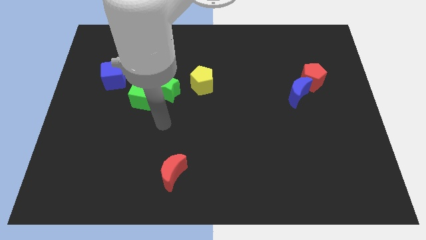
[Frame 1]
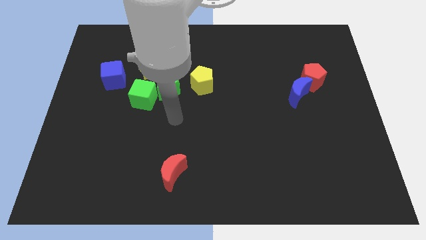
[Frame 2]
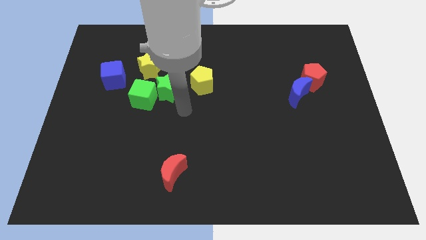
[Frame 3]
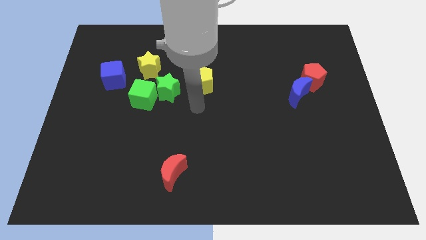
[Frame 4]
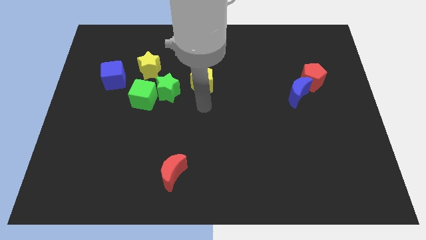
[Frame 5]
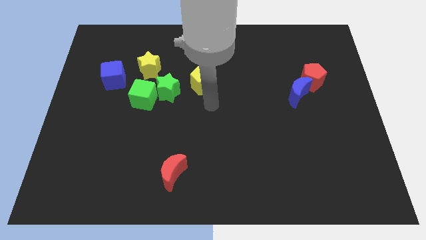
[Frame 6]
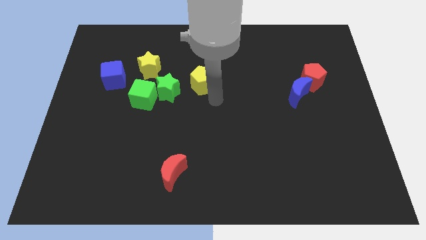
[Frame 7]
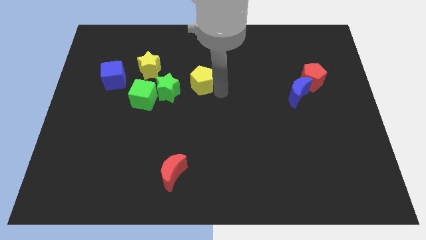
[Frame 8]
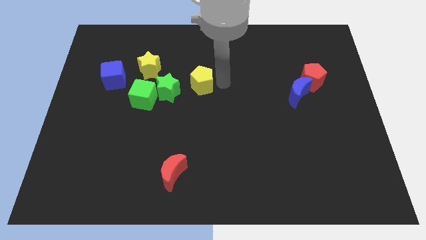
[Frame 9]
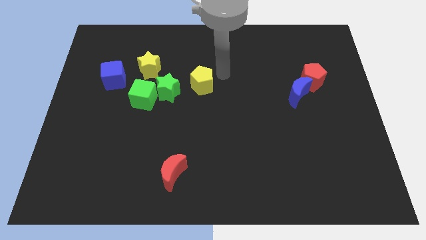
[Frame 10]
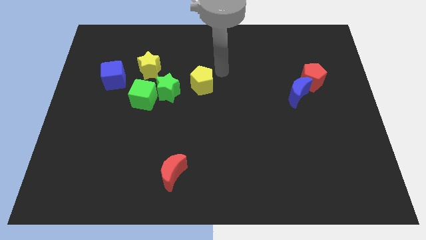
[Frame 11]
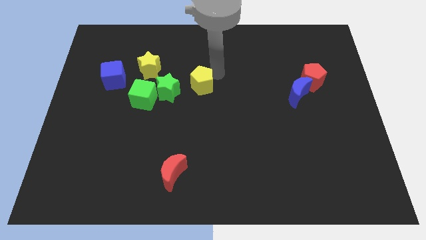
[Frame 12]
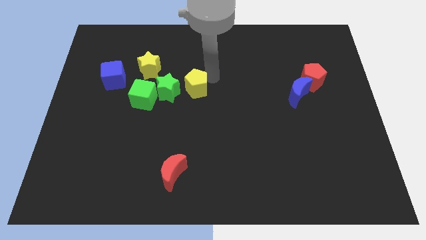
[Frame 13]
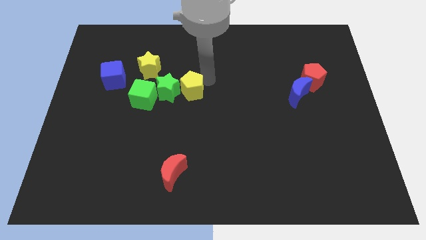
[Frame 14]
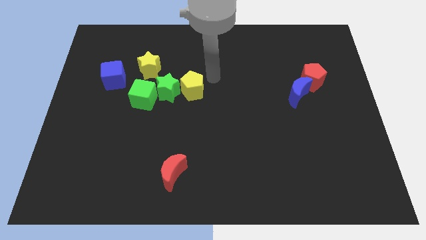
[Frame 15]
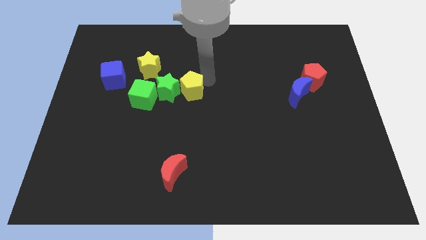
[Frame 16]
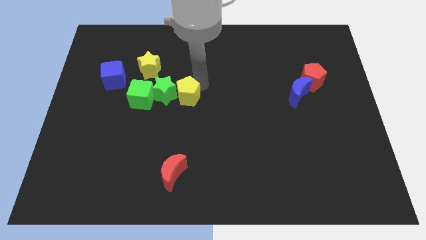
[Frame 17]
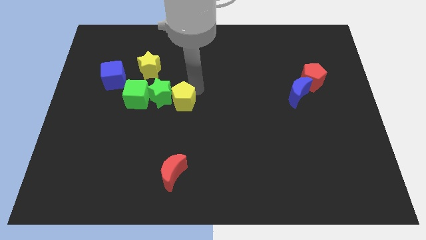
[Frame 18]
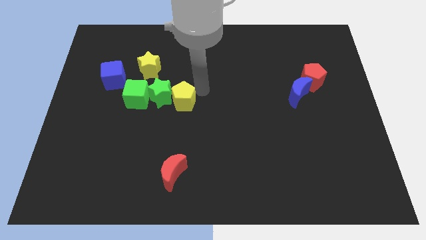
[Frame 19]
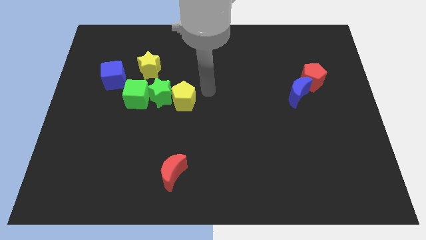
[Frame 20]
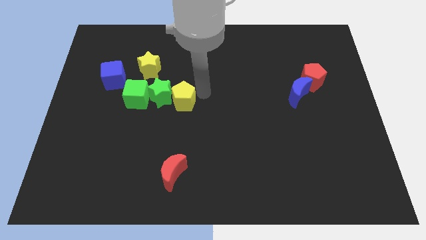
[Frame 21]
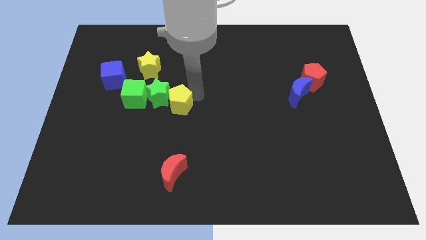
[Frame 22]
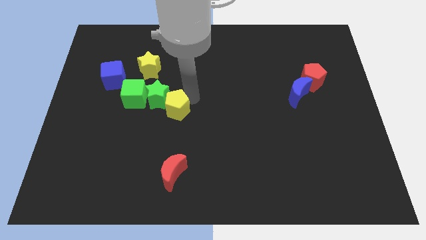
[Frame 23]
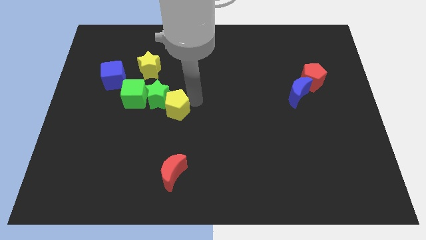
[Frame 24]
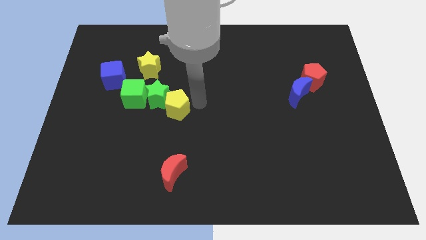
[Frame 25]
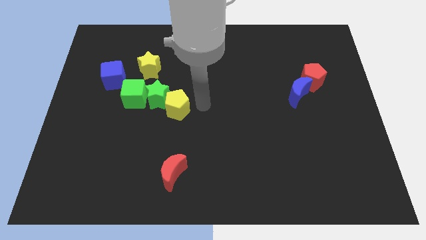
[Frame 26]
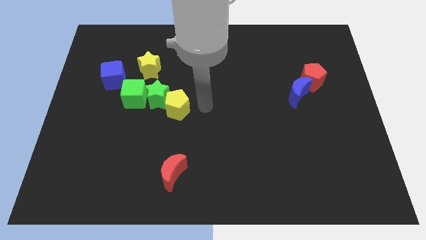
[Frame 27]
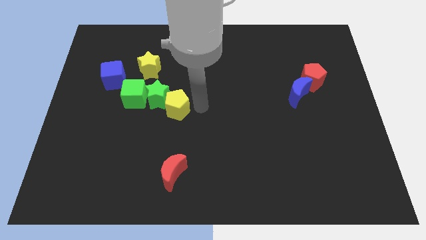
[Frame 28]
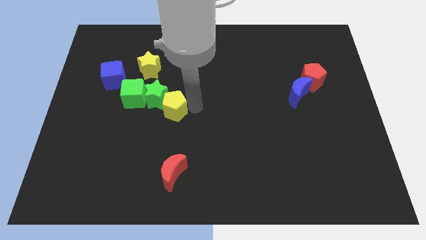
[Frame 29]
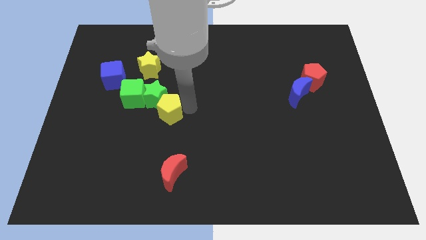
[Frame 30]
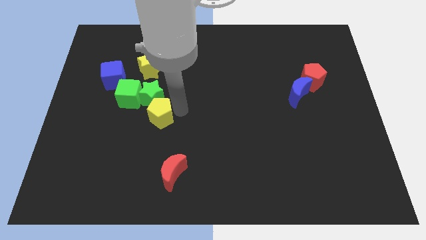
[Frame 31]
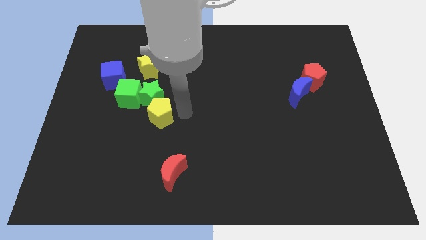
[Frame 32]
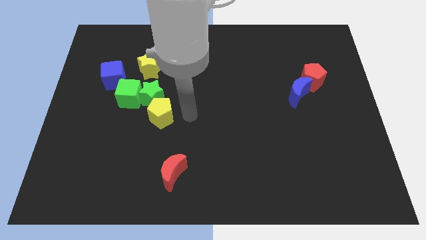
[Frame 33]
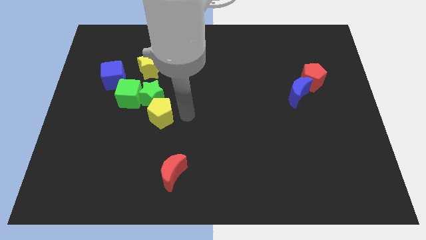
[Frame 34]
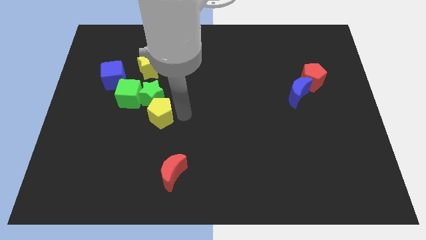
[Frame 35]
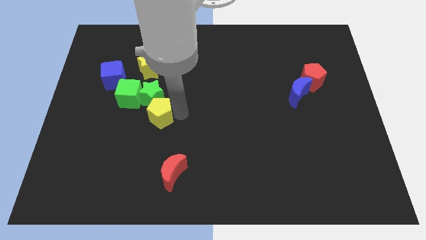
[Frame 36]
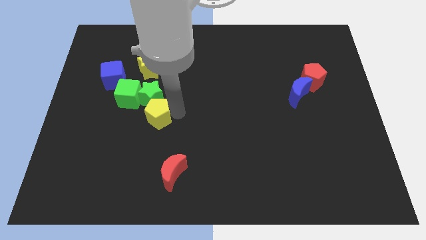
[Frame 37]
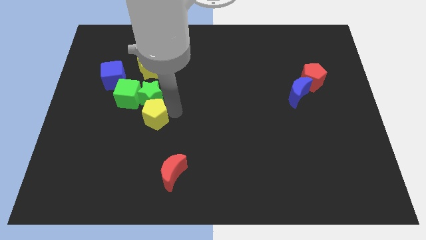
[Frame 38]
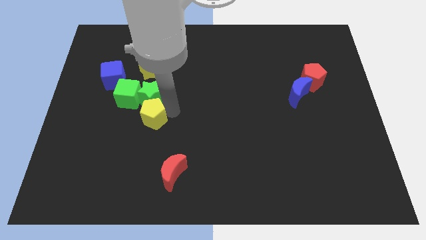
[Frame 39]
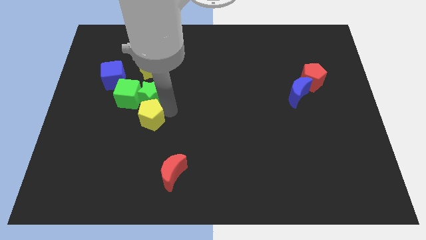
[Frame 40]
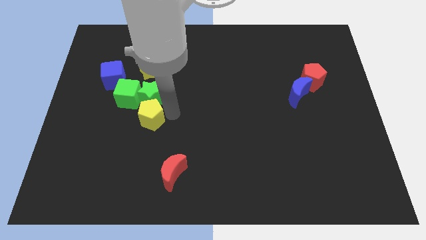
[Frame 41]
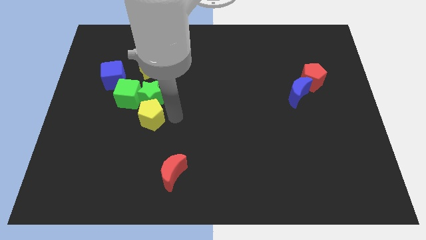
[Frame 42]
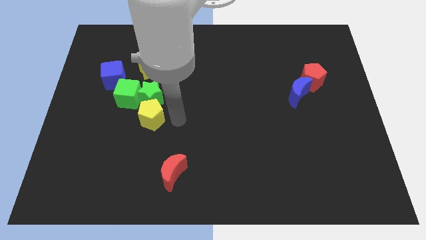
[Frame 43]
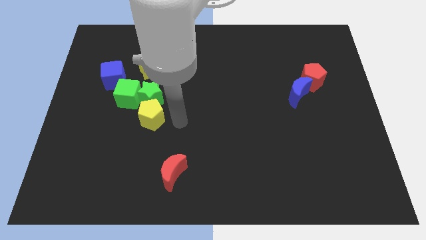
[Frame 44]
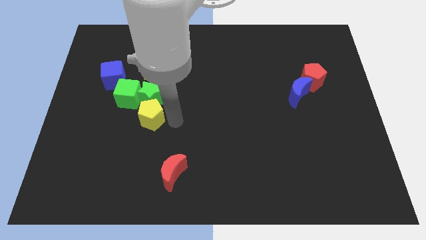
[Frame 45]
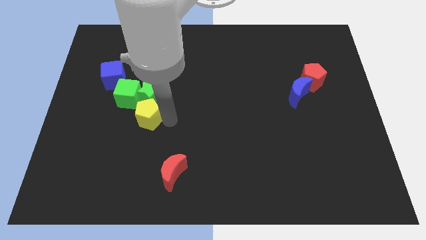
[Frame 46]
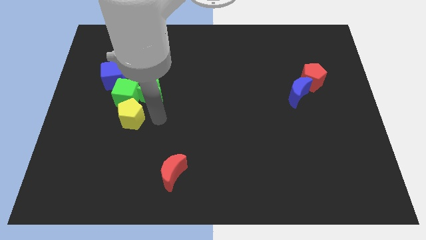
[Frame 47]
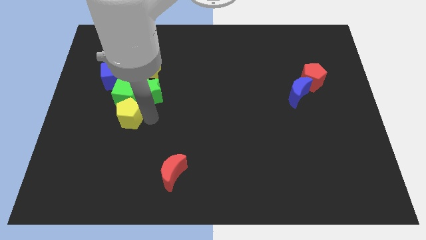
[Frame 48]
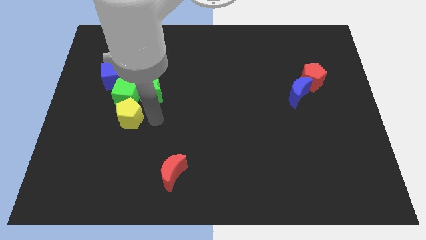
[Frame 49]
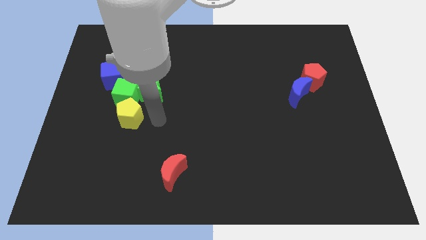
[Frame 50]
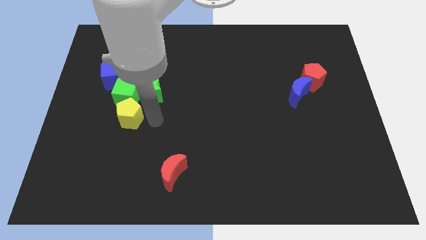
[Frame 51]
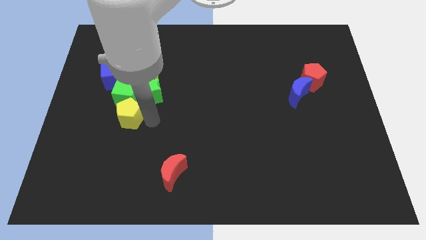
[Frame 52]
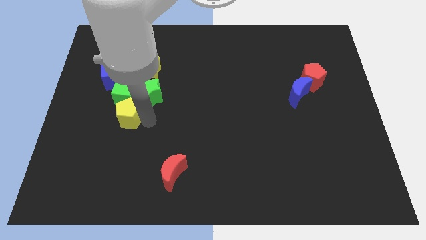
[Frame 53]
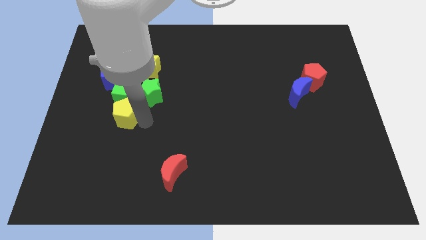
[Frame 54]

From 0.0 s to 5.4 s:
slide the yellow pentagon to the bottom left of the green cube

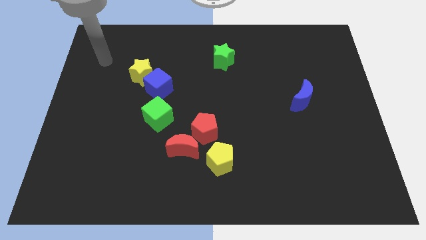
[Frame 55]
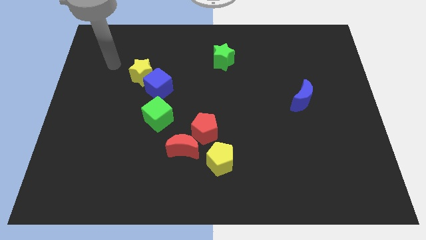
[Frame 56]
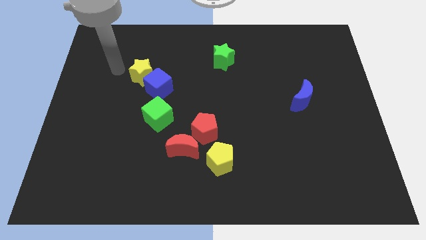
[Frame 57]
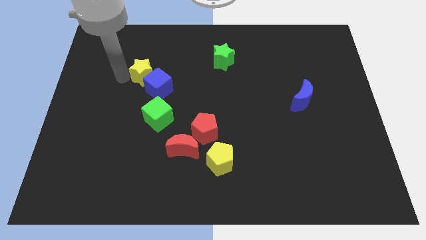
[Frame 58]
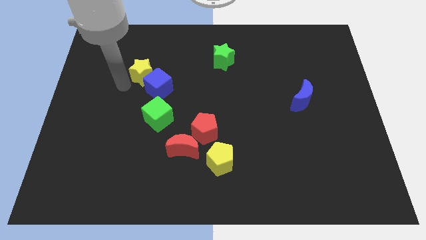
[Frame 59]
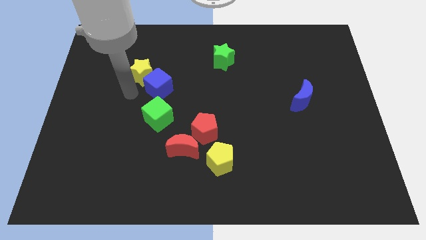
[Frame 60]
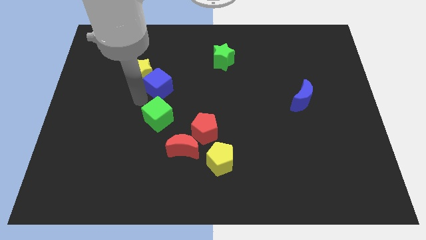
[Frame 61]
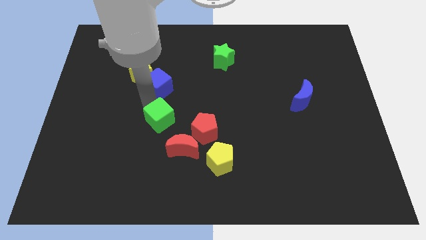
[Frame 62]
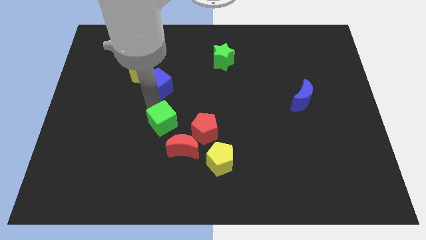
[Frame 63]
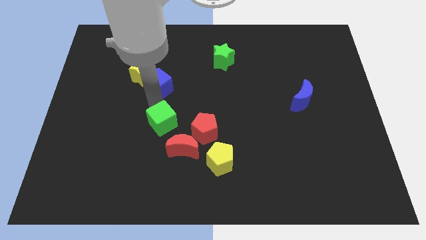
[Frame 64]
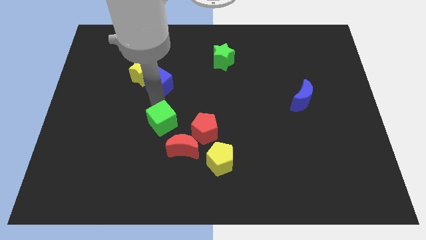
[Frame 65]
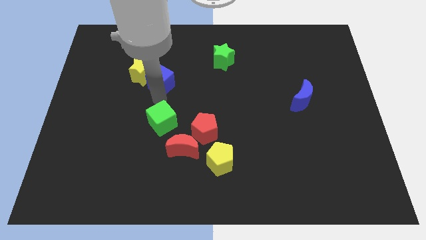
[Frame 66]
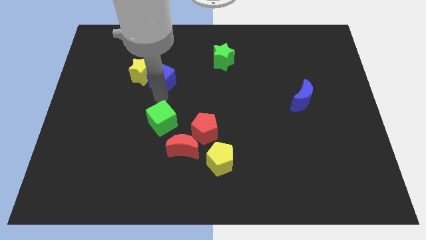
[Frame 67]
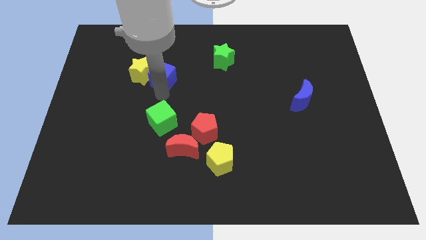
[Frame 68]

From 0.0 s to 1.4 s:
put the blue cube diagonally up and to the right of the yellow star
